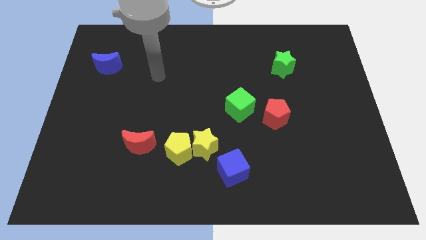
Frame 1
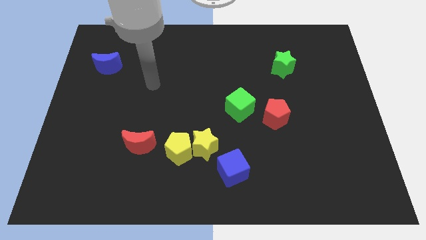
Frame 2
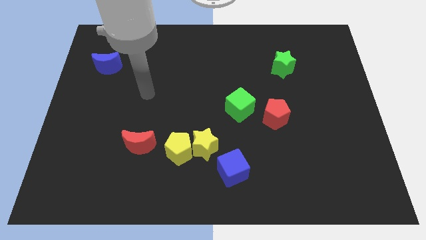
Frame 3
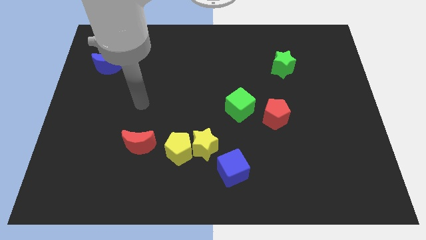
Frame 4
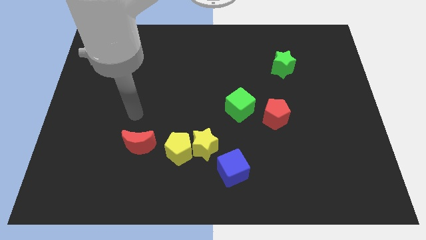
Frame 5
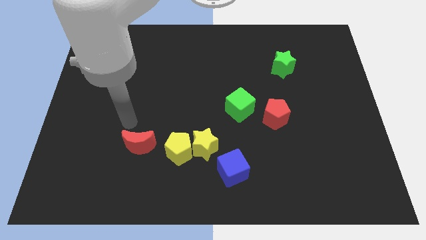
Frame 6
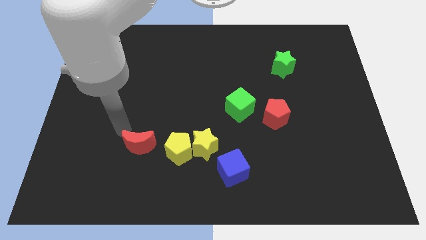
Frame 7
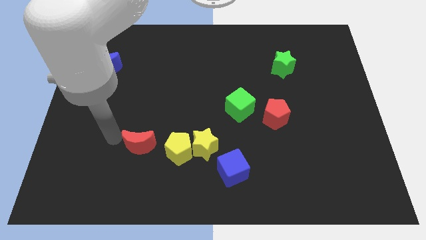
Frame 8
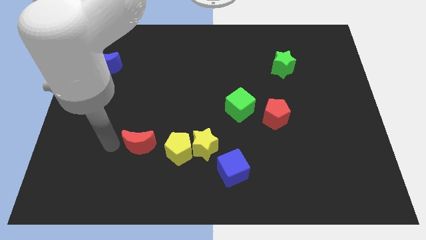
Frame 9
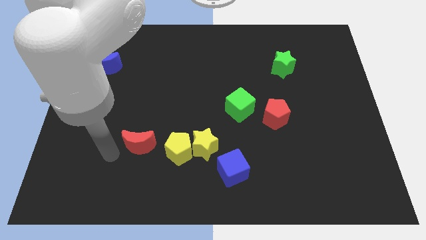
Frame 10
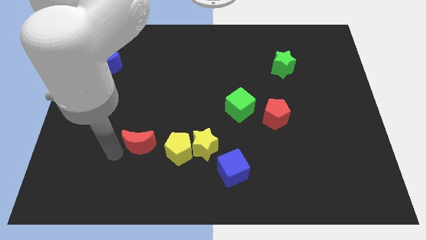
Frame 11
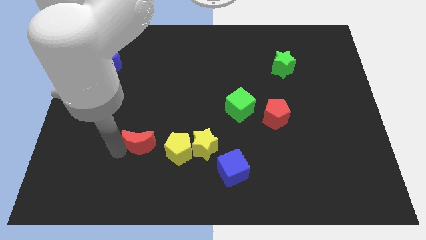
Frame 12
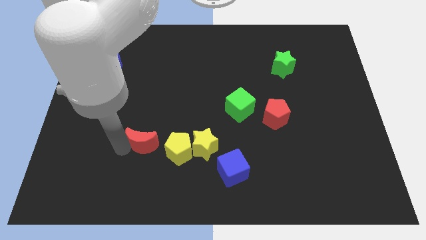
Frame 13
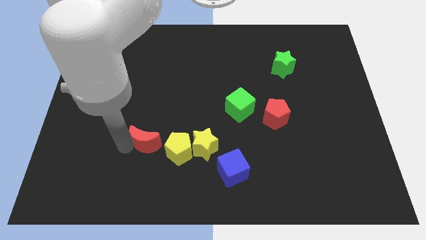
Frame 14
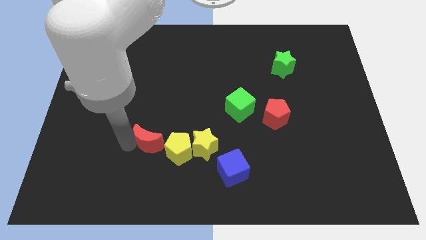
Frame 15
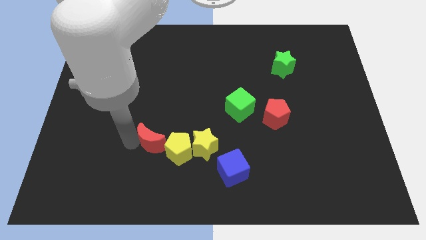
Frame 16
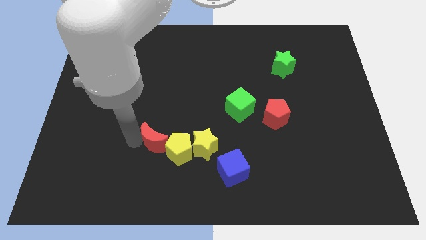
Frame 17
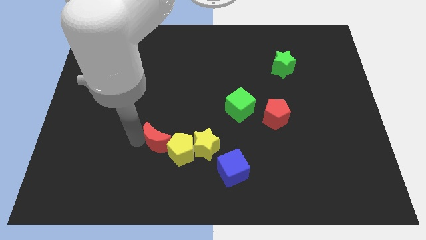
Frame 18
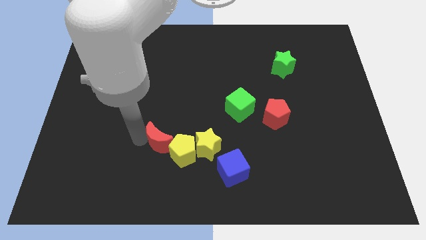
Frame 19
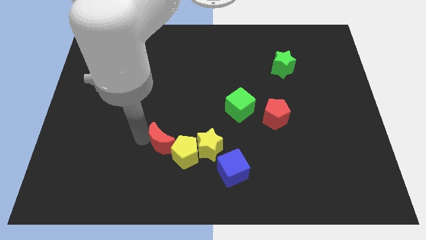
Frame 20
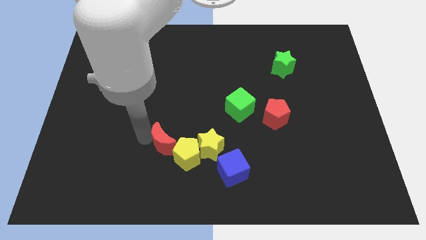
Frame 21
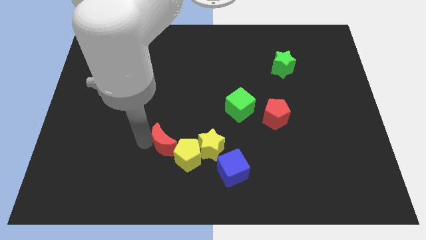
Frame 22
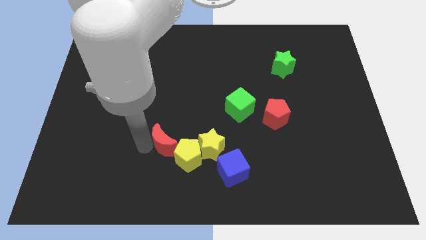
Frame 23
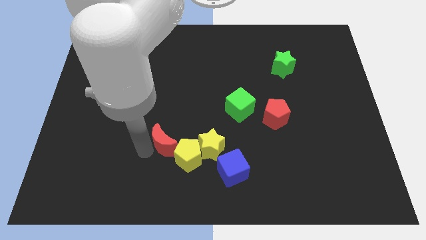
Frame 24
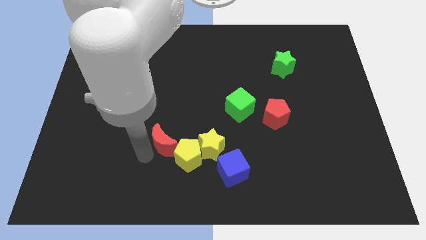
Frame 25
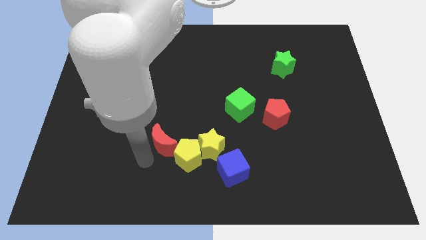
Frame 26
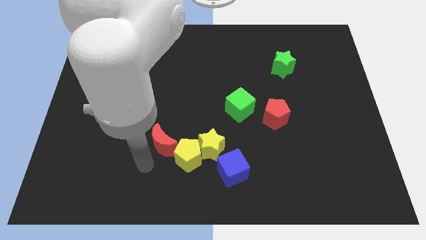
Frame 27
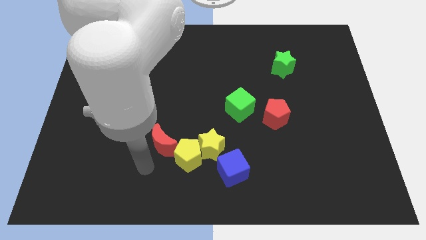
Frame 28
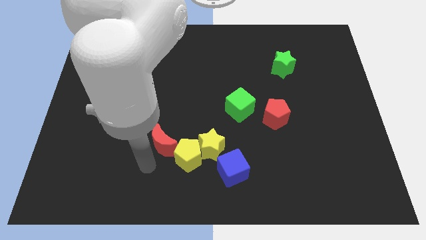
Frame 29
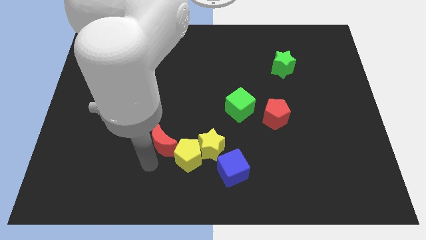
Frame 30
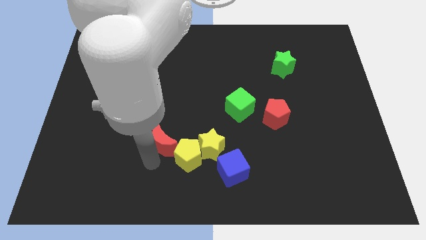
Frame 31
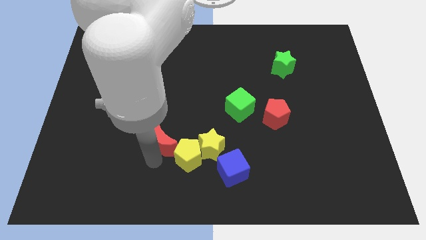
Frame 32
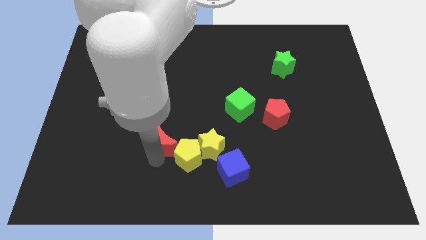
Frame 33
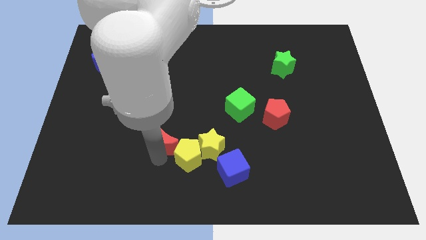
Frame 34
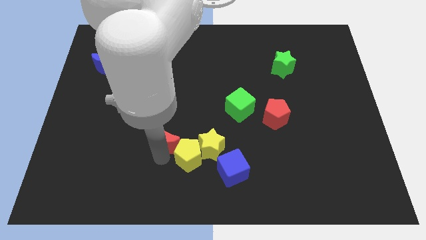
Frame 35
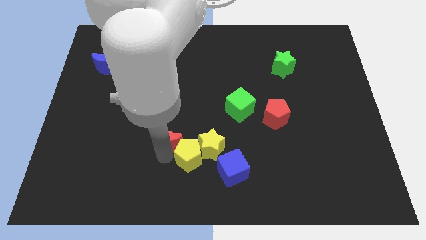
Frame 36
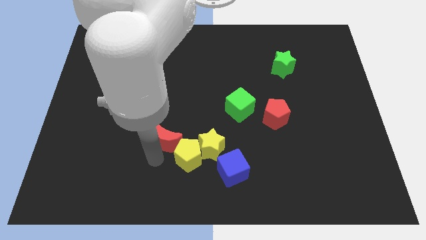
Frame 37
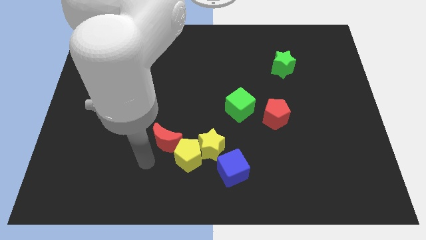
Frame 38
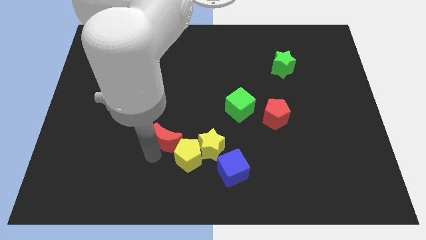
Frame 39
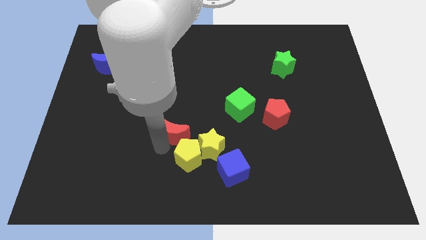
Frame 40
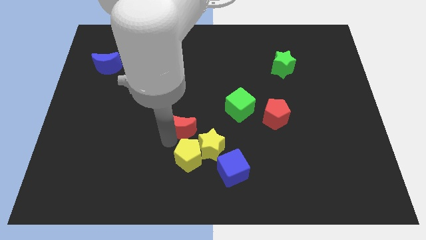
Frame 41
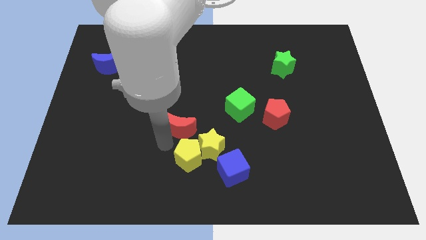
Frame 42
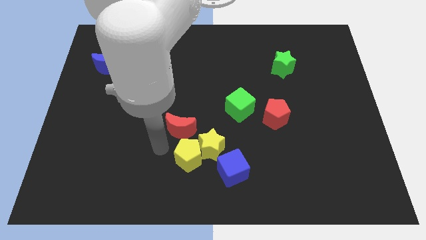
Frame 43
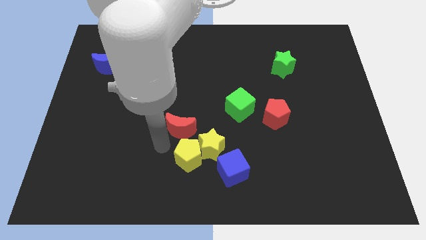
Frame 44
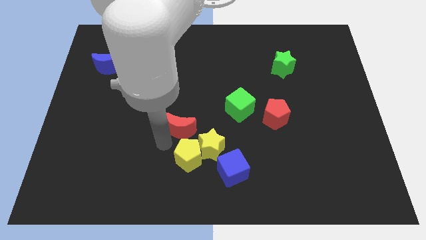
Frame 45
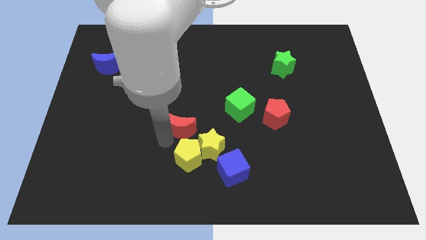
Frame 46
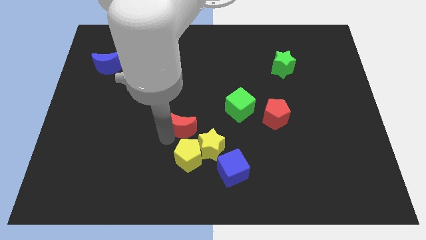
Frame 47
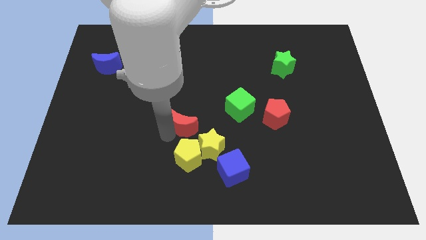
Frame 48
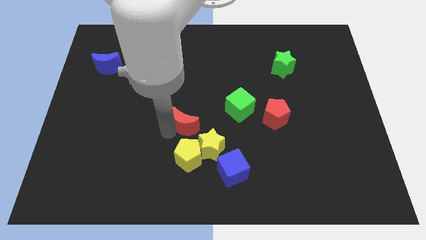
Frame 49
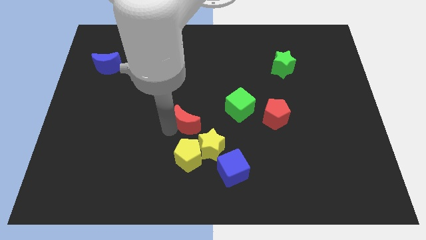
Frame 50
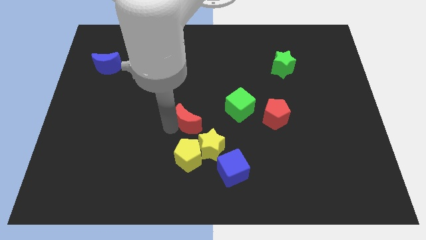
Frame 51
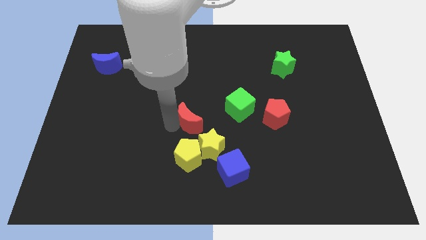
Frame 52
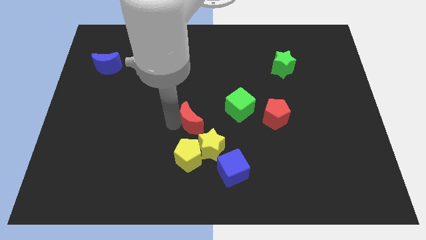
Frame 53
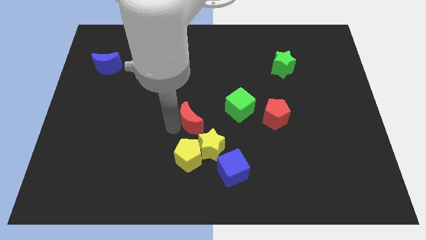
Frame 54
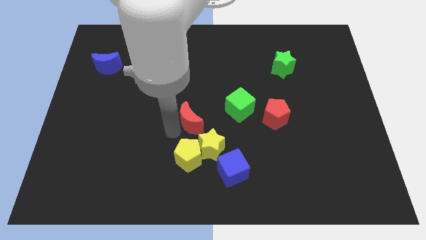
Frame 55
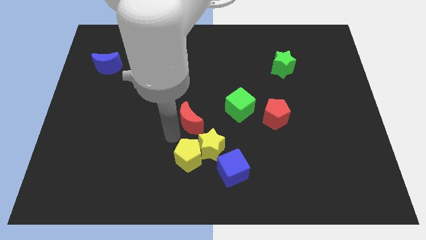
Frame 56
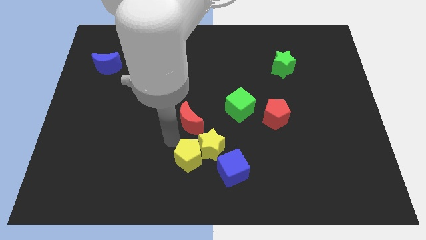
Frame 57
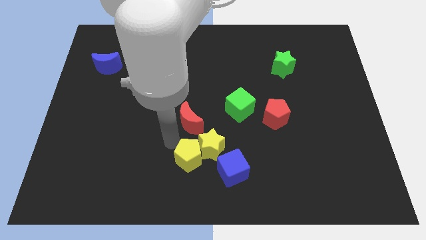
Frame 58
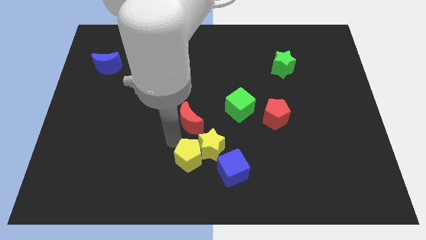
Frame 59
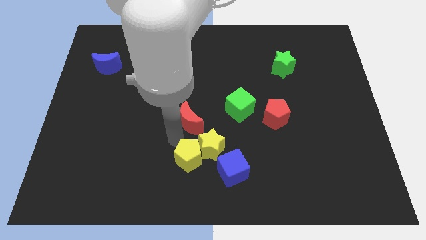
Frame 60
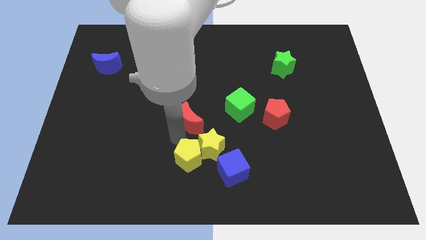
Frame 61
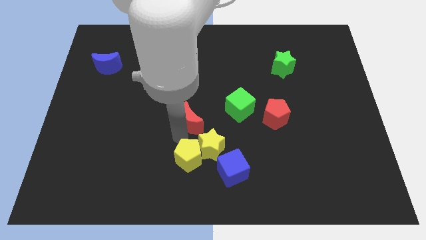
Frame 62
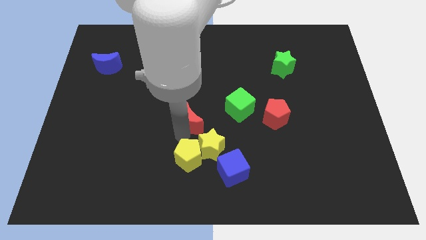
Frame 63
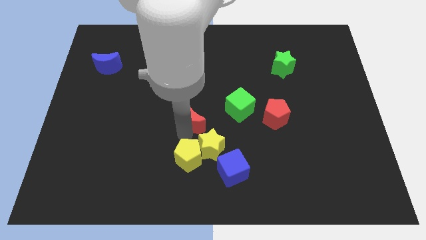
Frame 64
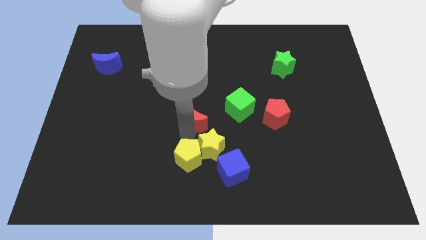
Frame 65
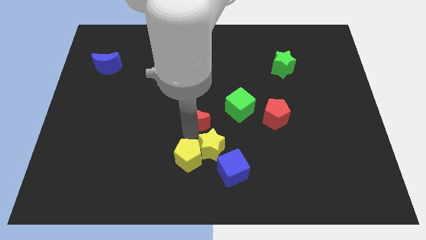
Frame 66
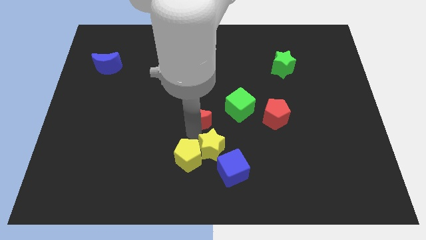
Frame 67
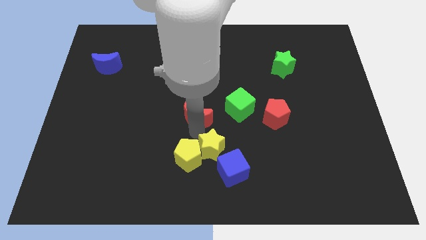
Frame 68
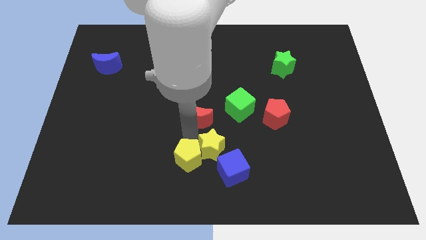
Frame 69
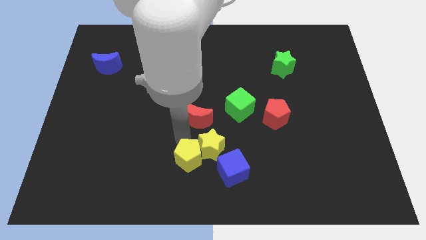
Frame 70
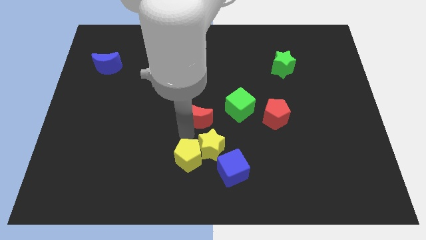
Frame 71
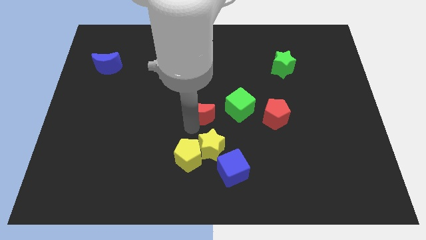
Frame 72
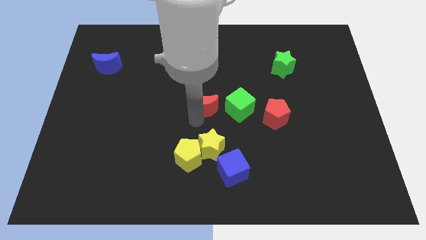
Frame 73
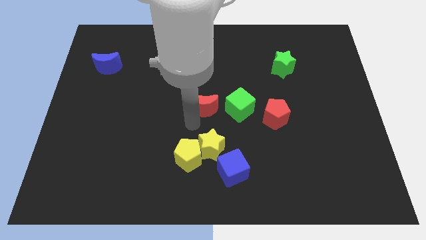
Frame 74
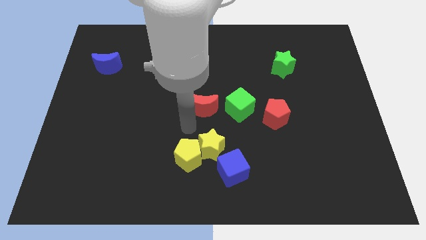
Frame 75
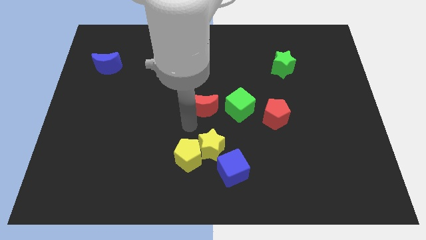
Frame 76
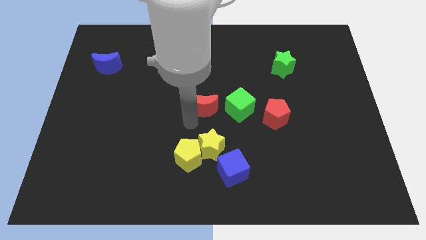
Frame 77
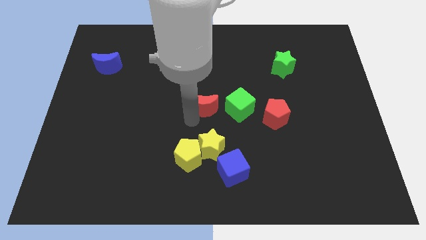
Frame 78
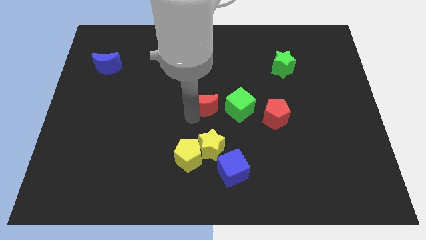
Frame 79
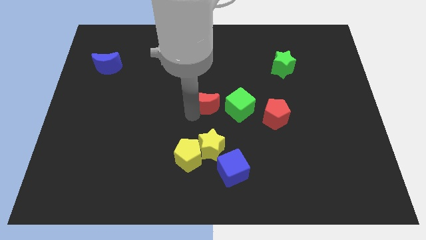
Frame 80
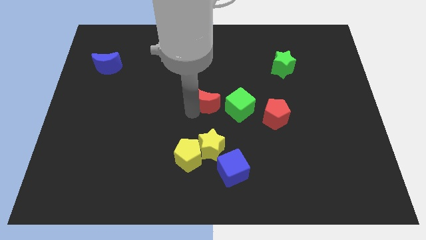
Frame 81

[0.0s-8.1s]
put the red moon to the top left side of the green cube
